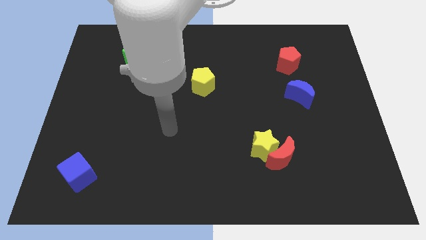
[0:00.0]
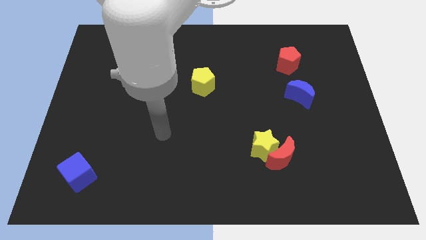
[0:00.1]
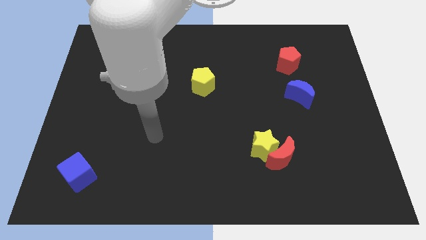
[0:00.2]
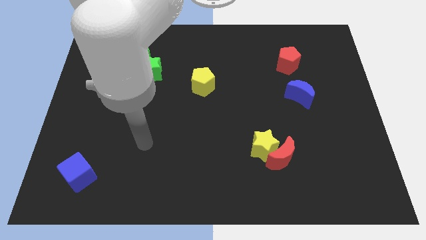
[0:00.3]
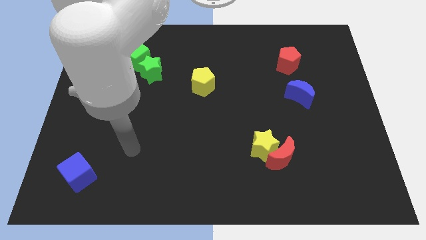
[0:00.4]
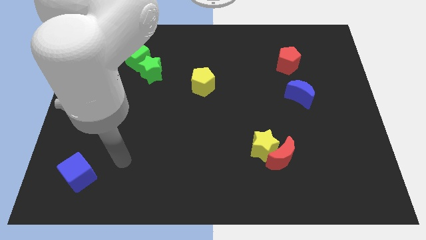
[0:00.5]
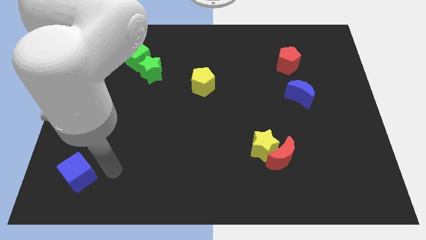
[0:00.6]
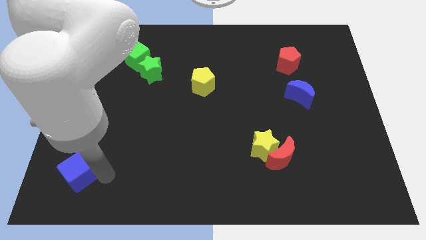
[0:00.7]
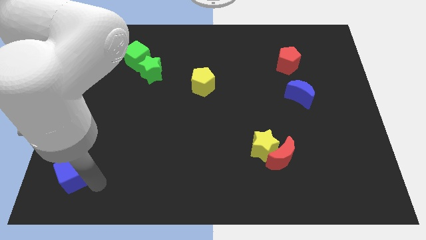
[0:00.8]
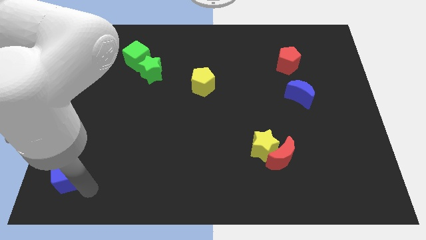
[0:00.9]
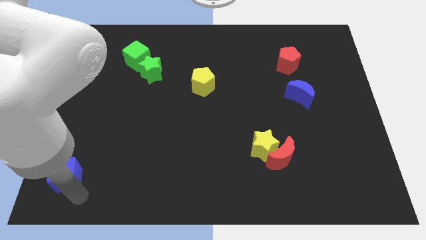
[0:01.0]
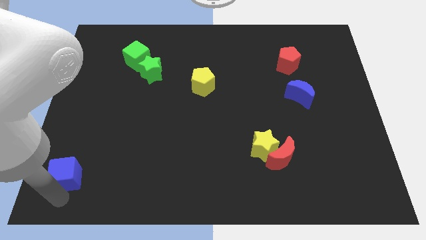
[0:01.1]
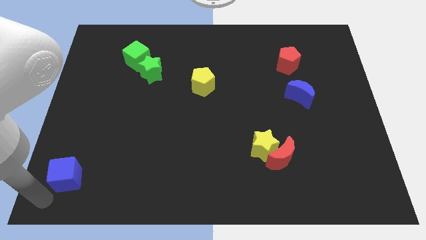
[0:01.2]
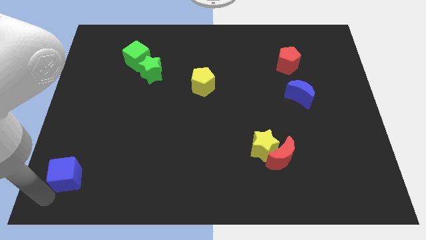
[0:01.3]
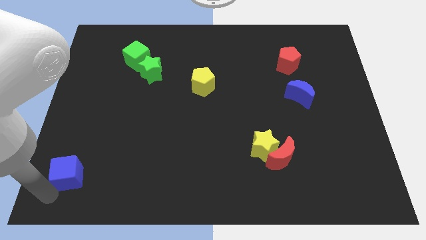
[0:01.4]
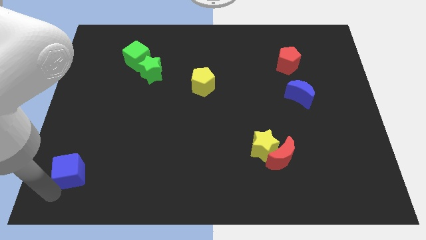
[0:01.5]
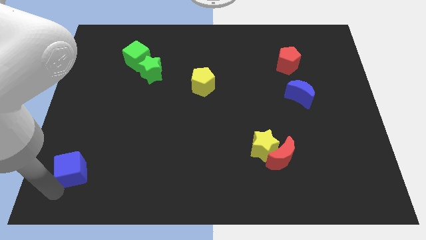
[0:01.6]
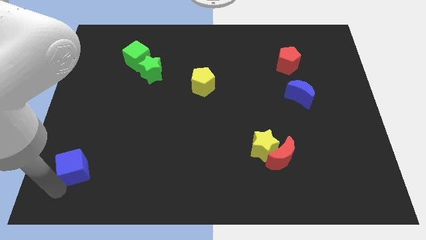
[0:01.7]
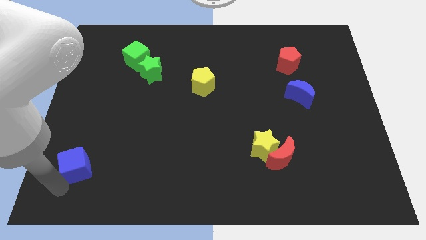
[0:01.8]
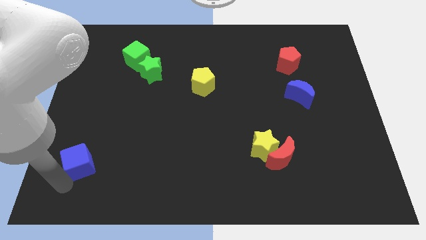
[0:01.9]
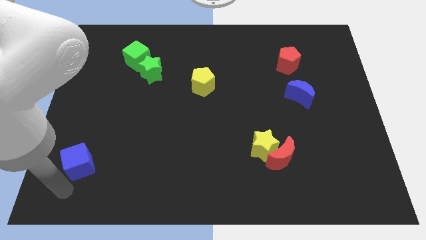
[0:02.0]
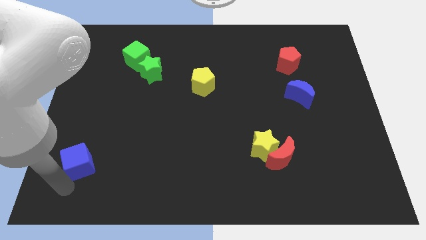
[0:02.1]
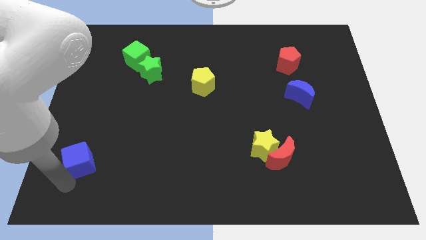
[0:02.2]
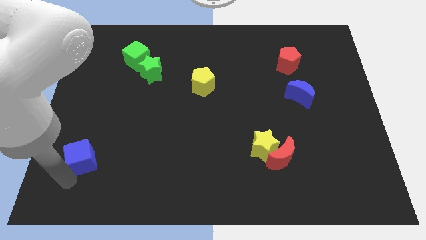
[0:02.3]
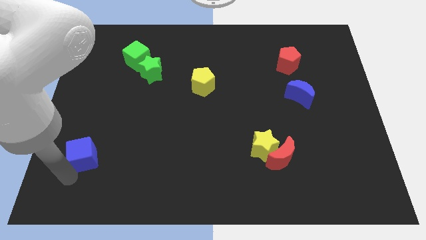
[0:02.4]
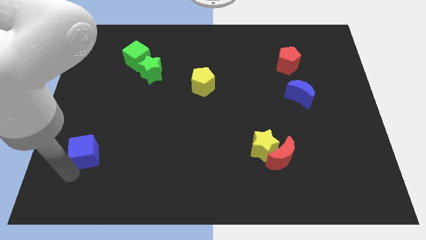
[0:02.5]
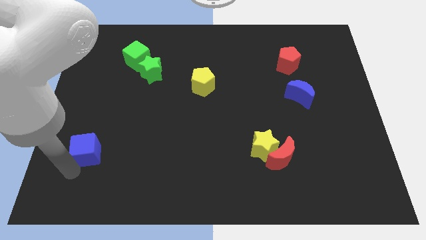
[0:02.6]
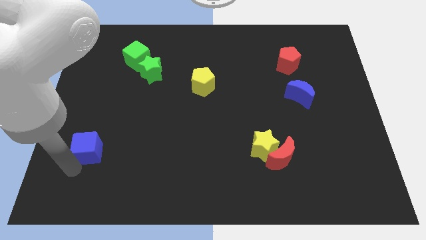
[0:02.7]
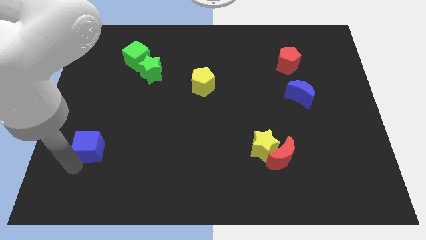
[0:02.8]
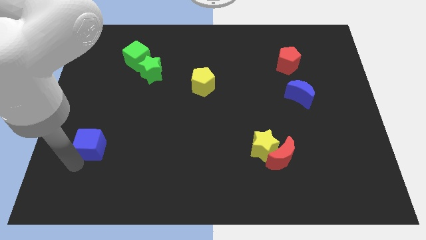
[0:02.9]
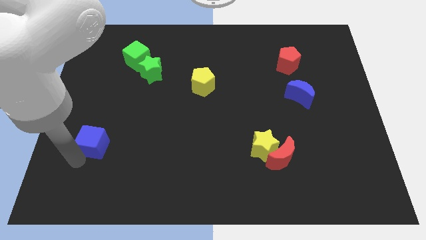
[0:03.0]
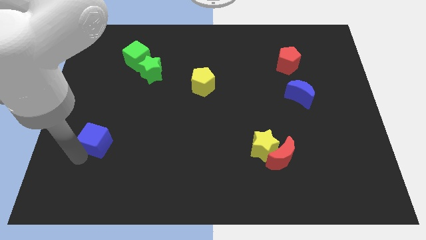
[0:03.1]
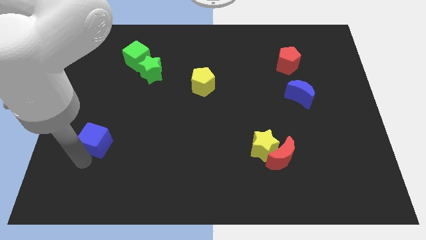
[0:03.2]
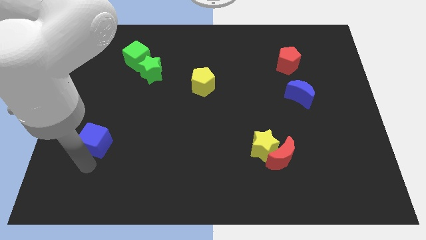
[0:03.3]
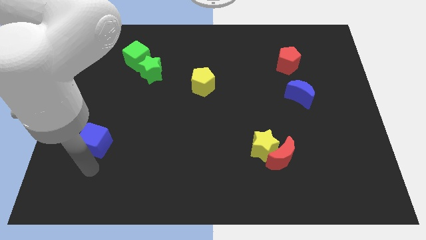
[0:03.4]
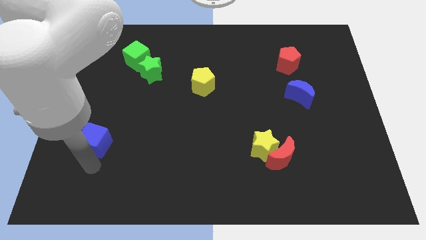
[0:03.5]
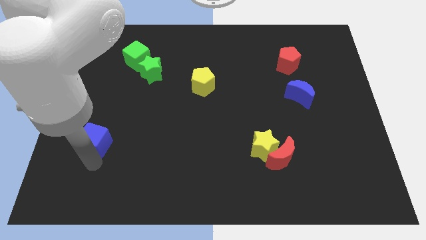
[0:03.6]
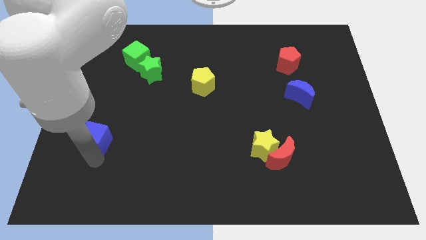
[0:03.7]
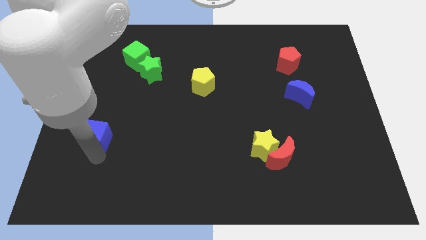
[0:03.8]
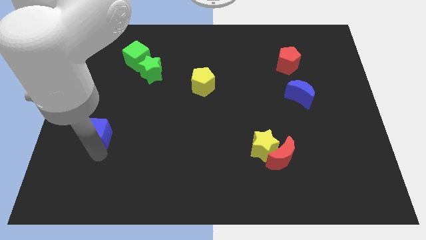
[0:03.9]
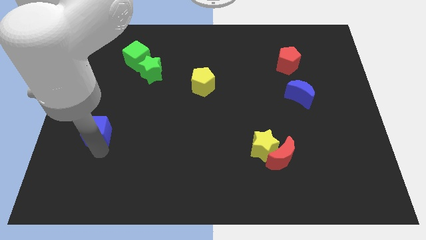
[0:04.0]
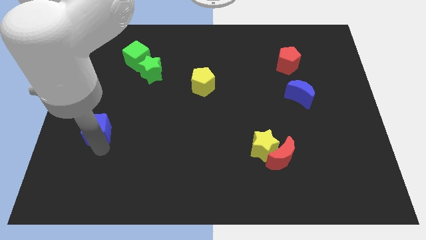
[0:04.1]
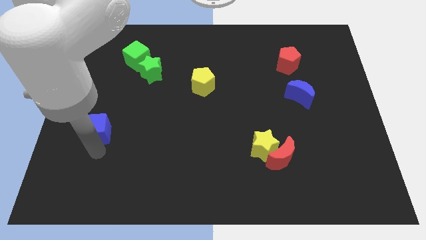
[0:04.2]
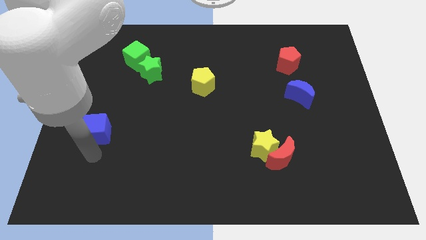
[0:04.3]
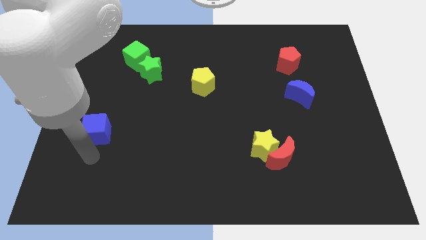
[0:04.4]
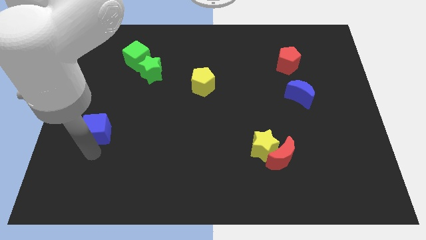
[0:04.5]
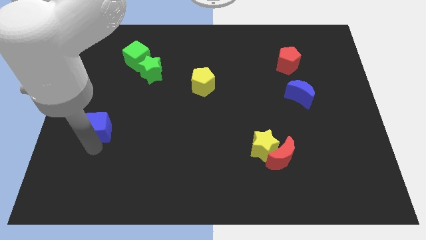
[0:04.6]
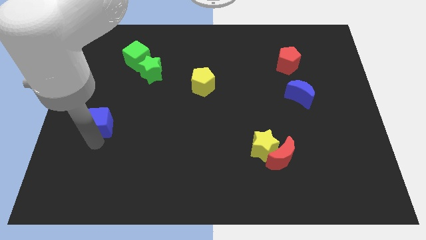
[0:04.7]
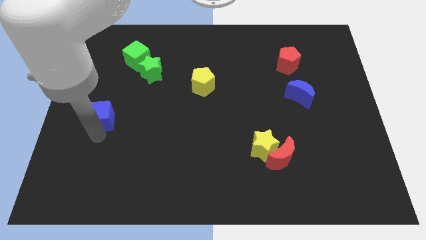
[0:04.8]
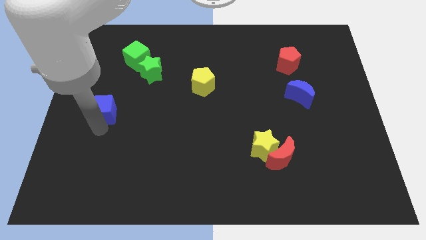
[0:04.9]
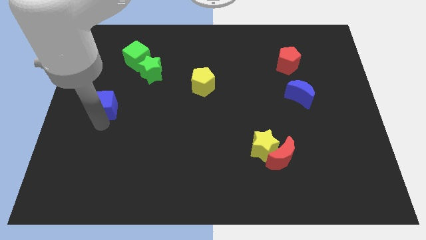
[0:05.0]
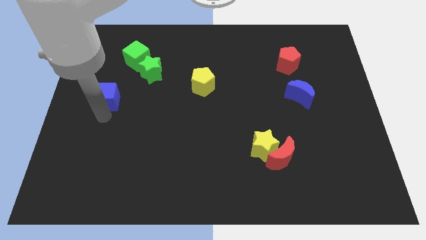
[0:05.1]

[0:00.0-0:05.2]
push the blue cube upwards

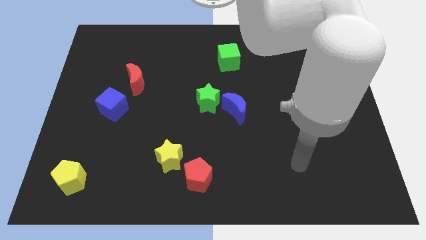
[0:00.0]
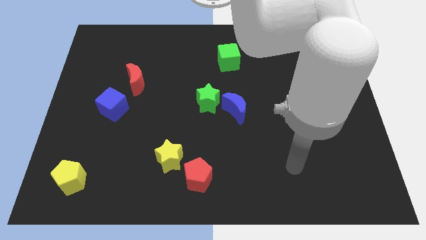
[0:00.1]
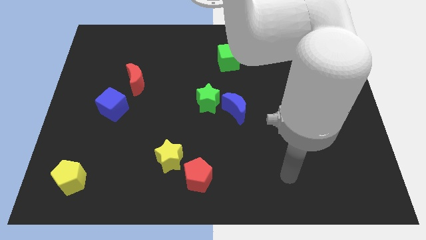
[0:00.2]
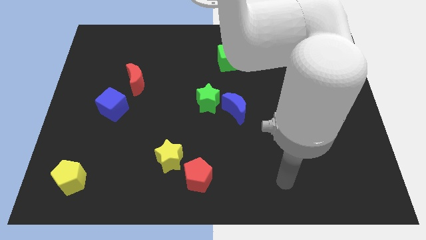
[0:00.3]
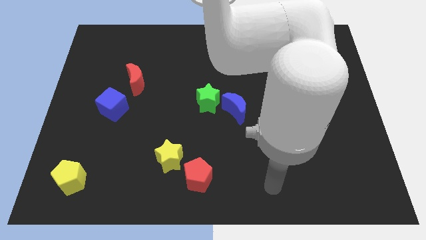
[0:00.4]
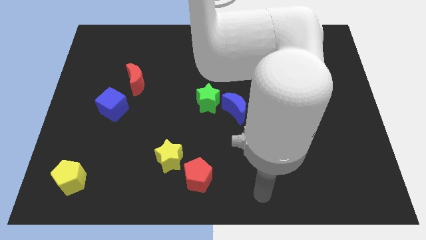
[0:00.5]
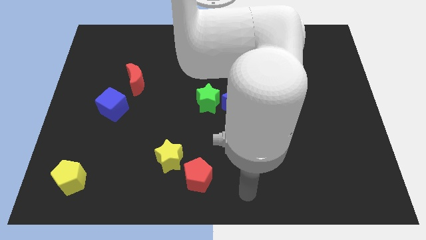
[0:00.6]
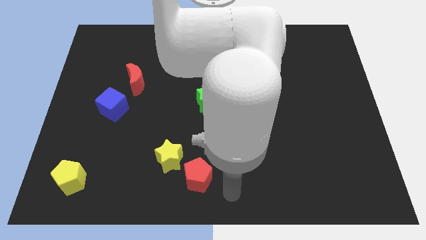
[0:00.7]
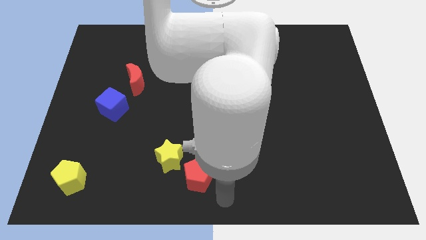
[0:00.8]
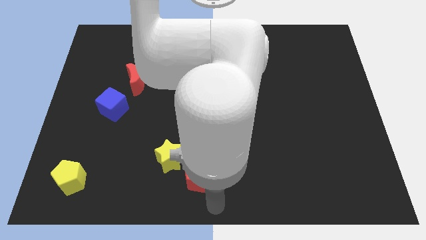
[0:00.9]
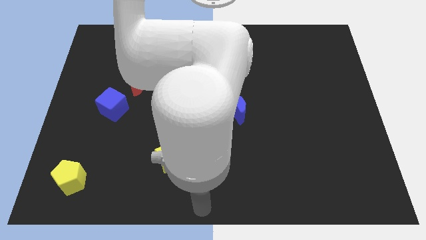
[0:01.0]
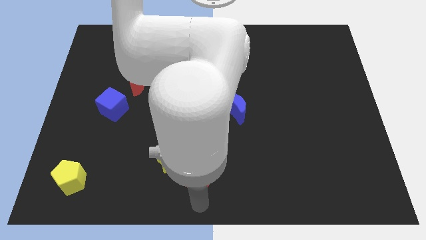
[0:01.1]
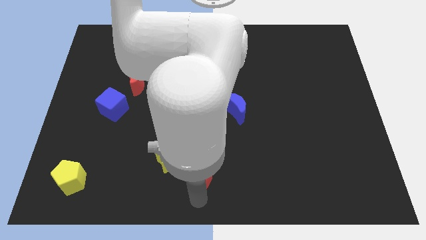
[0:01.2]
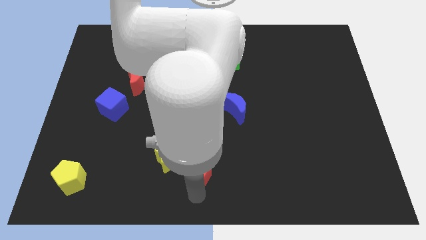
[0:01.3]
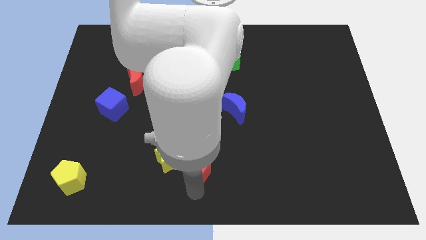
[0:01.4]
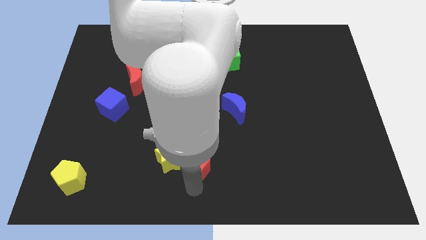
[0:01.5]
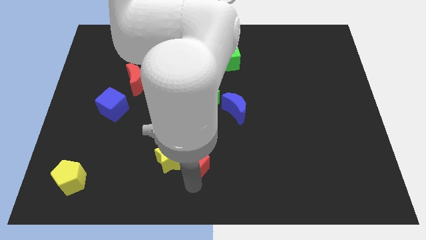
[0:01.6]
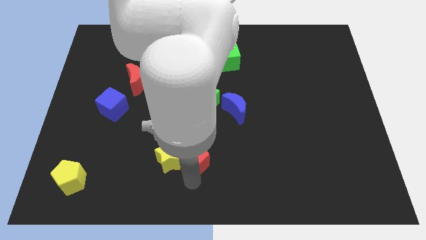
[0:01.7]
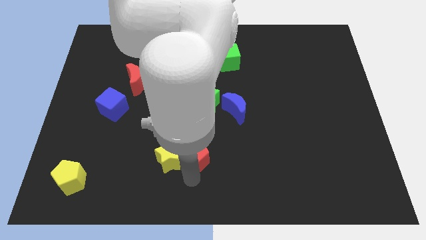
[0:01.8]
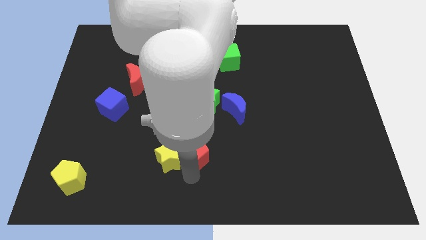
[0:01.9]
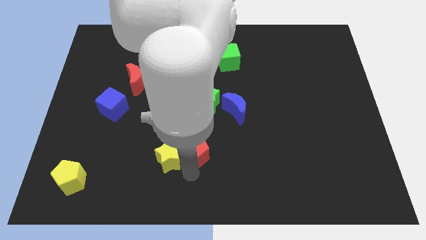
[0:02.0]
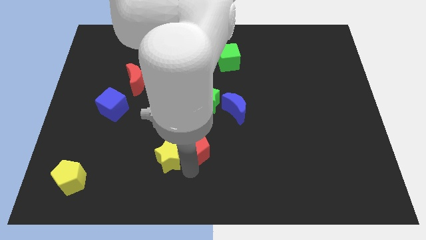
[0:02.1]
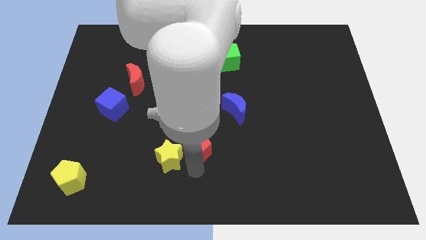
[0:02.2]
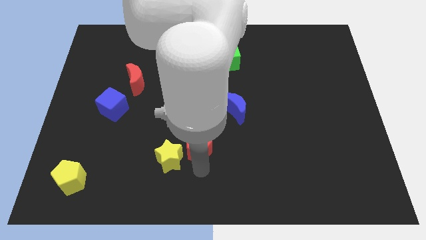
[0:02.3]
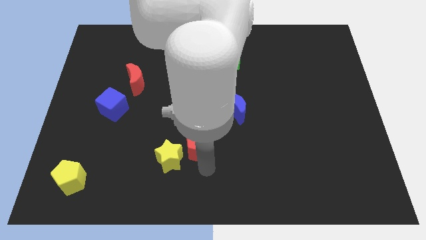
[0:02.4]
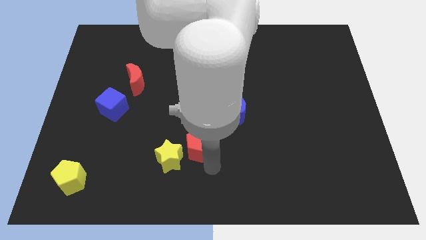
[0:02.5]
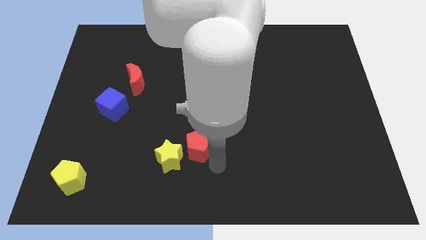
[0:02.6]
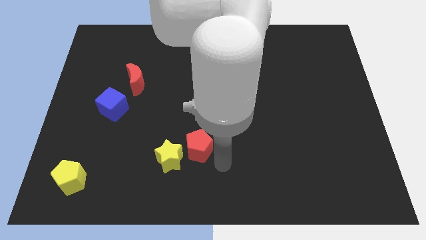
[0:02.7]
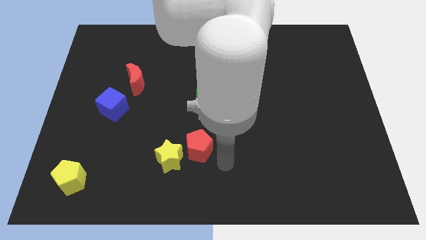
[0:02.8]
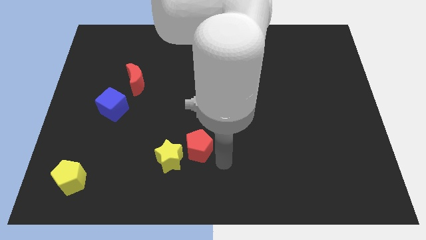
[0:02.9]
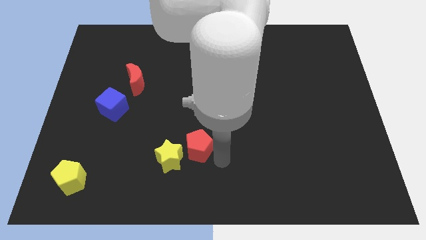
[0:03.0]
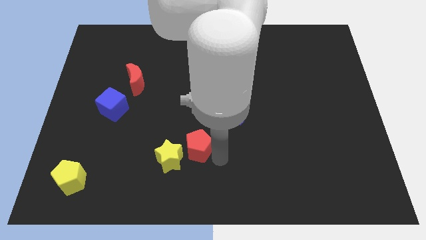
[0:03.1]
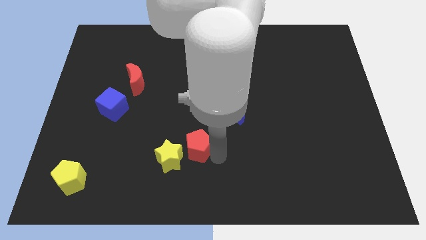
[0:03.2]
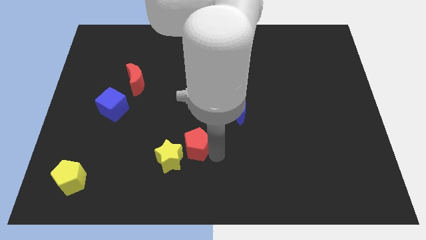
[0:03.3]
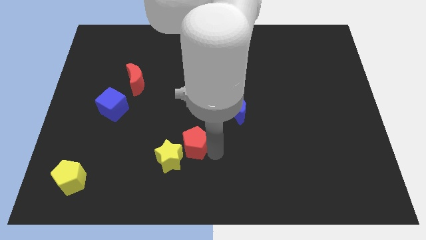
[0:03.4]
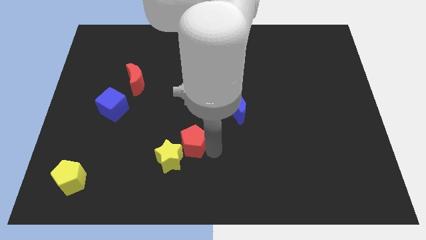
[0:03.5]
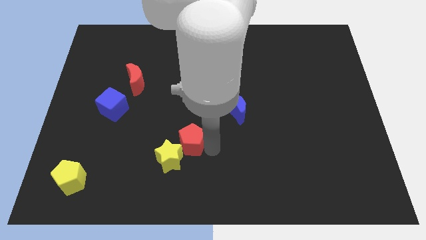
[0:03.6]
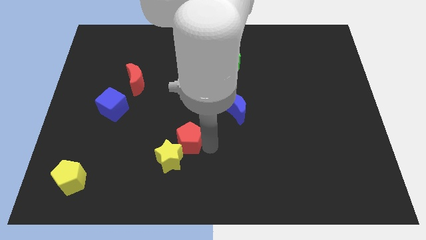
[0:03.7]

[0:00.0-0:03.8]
slightly move the red pentagon diagonally up and left
